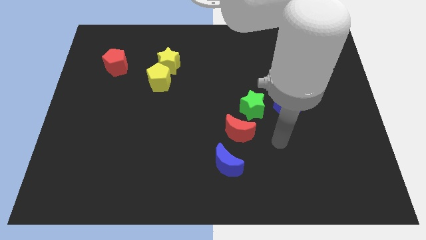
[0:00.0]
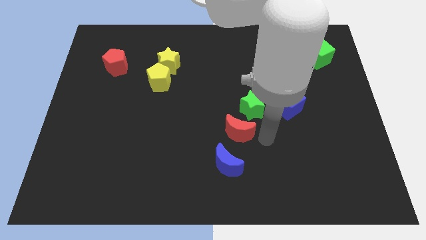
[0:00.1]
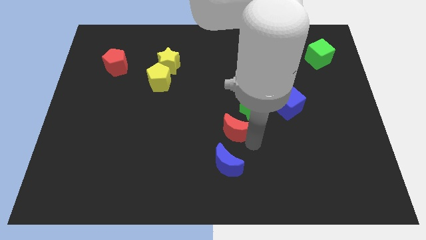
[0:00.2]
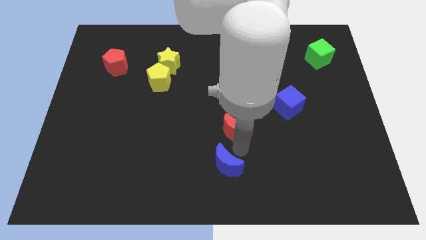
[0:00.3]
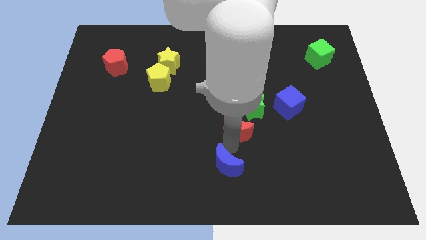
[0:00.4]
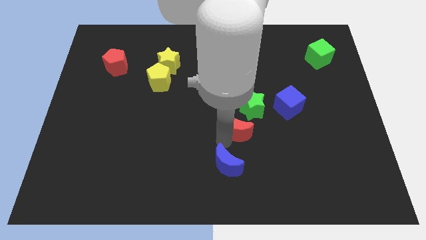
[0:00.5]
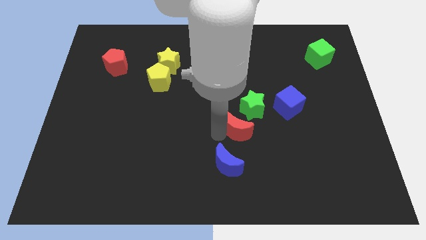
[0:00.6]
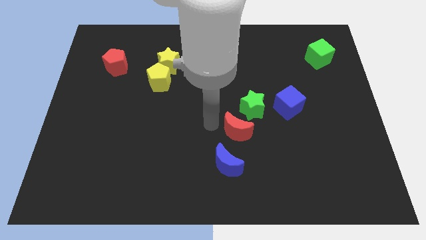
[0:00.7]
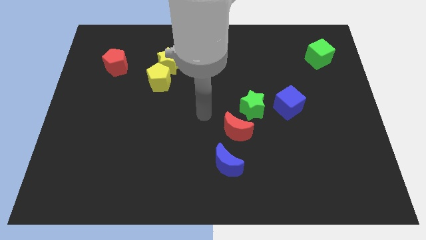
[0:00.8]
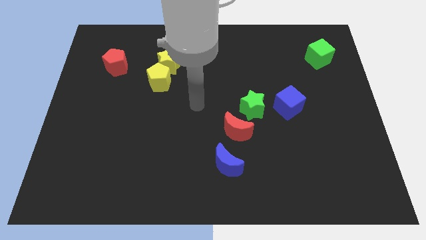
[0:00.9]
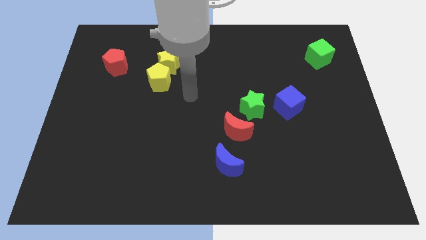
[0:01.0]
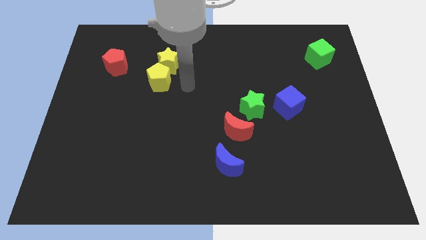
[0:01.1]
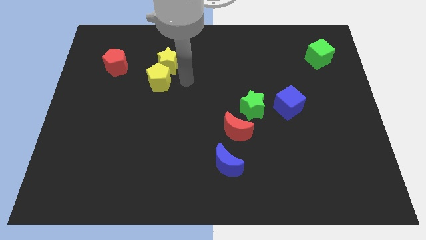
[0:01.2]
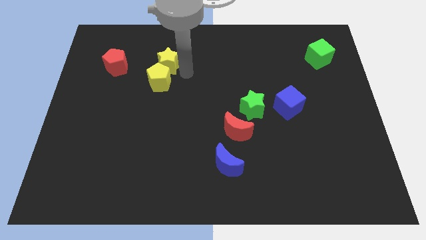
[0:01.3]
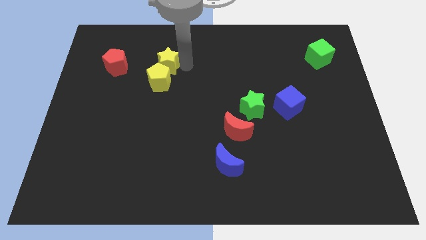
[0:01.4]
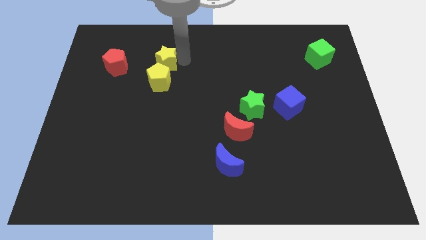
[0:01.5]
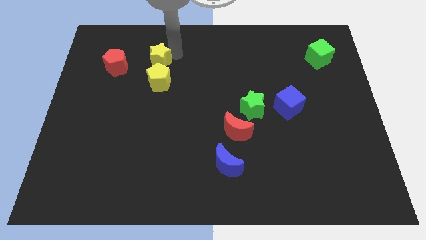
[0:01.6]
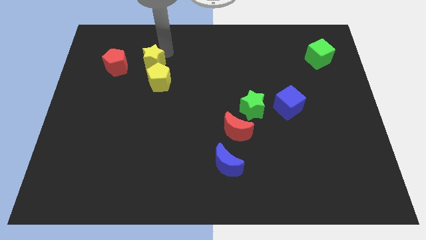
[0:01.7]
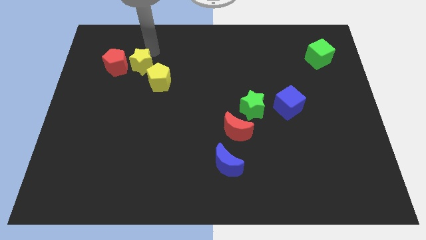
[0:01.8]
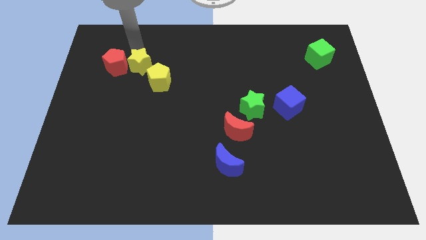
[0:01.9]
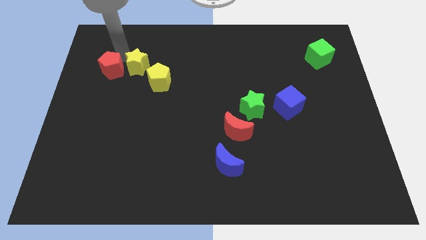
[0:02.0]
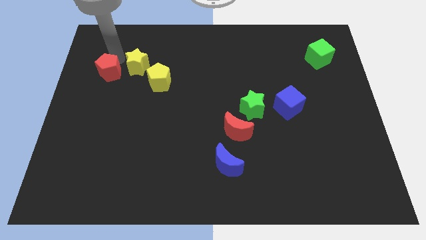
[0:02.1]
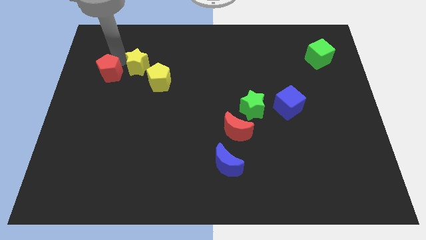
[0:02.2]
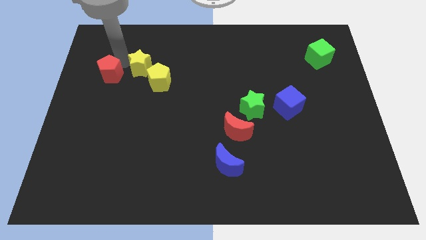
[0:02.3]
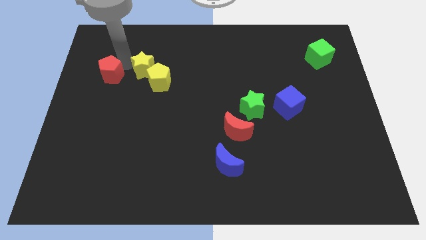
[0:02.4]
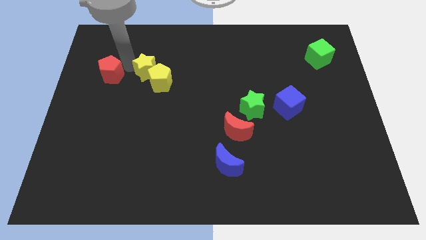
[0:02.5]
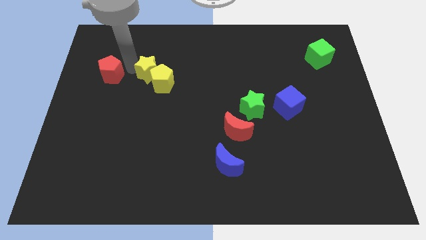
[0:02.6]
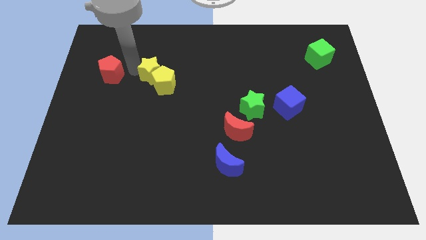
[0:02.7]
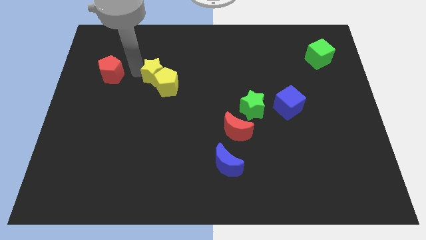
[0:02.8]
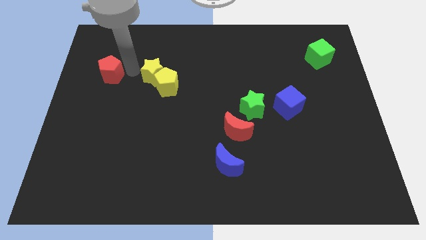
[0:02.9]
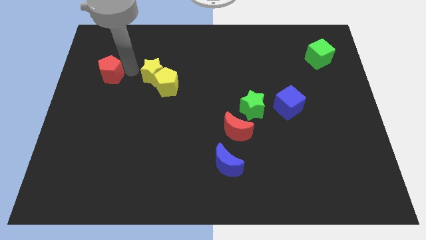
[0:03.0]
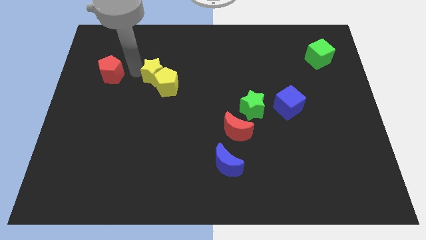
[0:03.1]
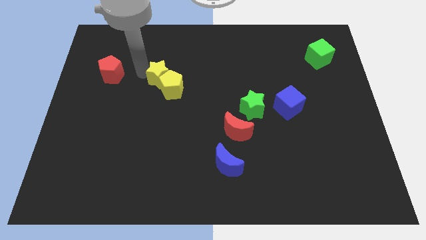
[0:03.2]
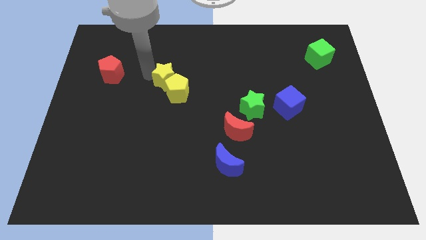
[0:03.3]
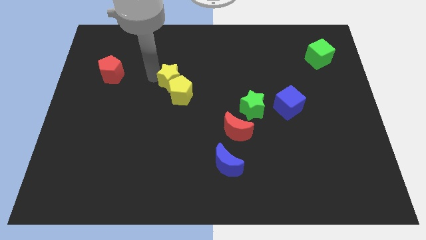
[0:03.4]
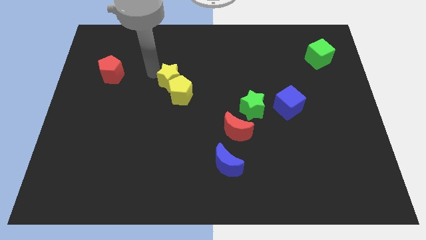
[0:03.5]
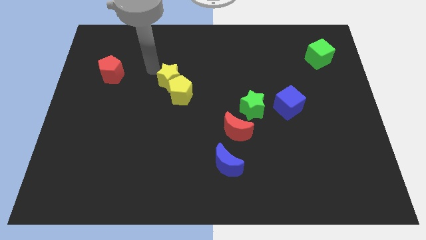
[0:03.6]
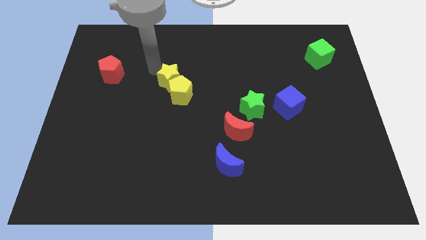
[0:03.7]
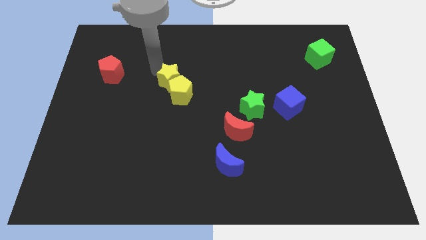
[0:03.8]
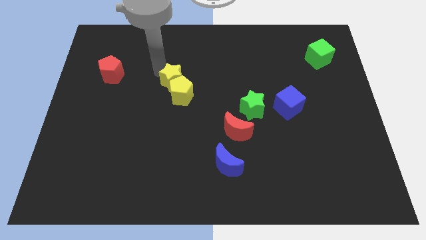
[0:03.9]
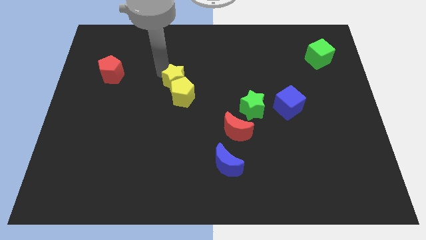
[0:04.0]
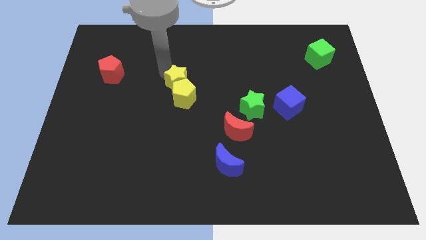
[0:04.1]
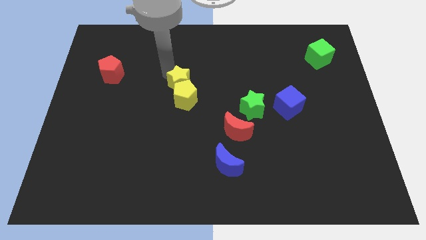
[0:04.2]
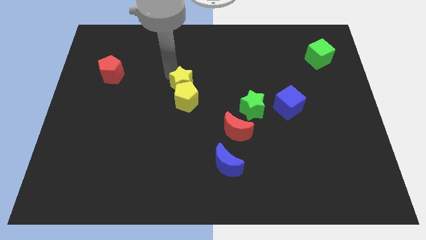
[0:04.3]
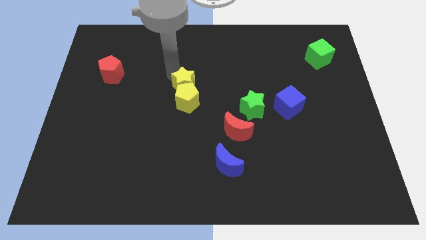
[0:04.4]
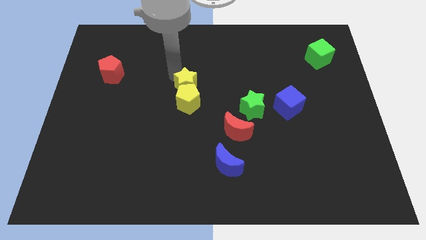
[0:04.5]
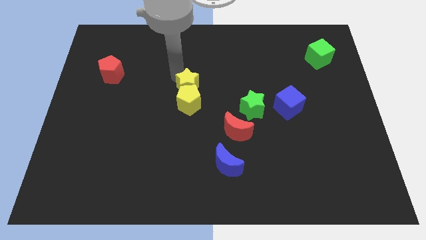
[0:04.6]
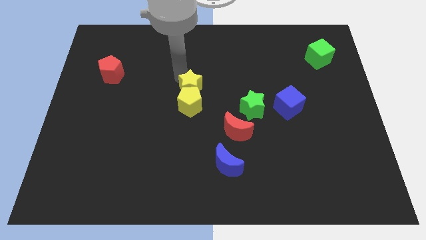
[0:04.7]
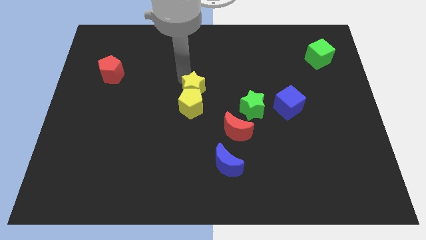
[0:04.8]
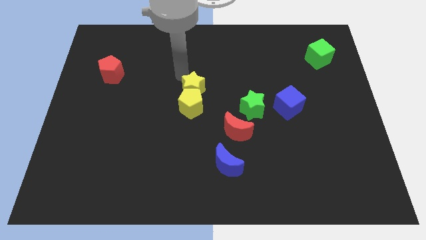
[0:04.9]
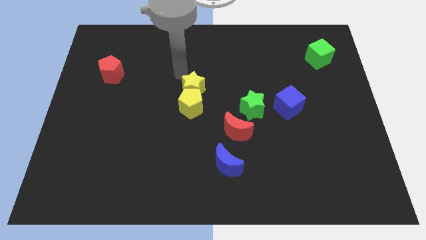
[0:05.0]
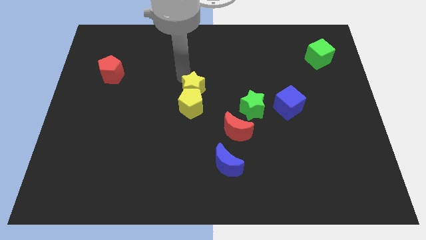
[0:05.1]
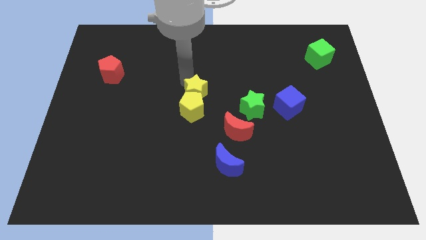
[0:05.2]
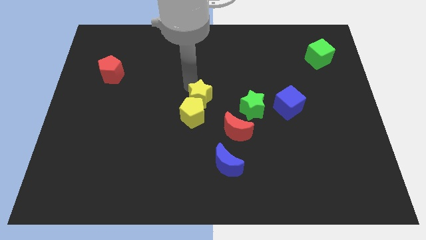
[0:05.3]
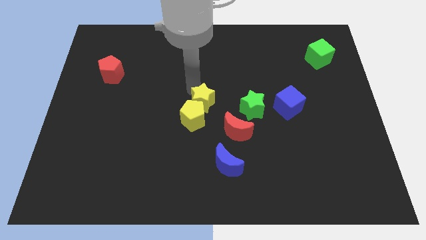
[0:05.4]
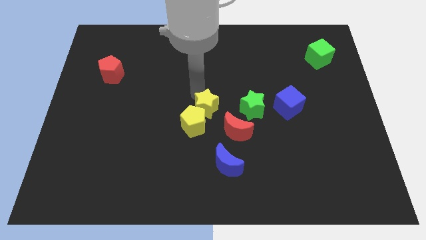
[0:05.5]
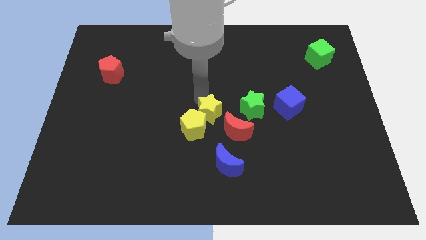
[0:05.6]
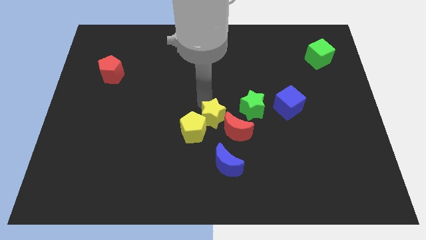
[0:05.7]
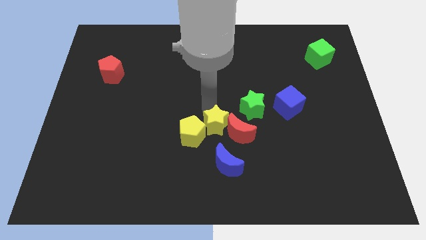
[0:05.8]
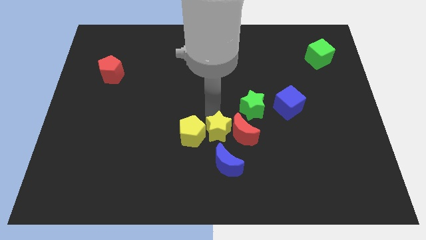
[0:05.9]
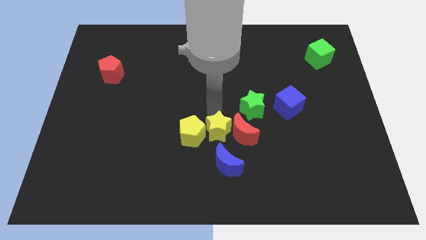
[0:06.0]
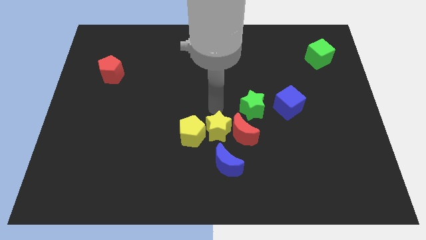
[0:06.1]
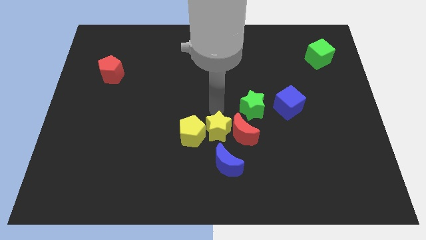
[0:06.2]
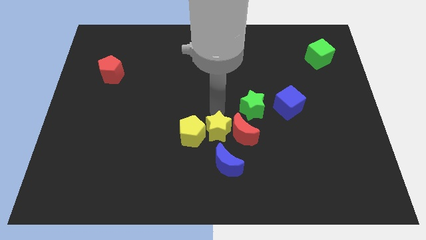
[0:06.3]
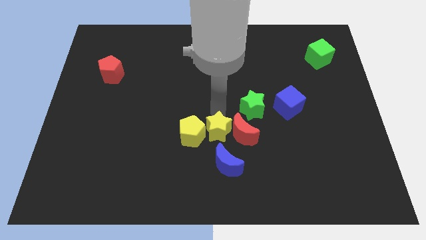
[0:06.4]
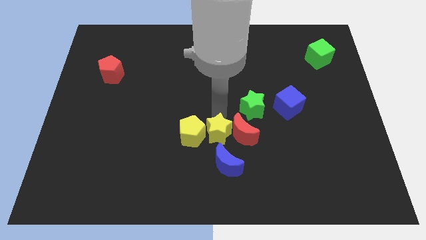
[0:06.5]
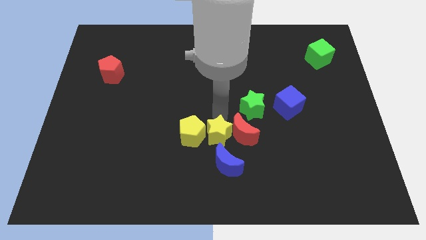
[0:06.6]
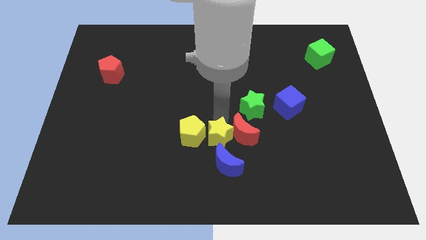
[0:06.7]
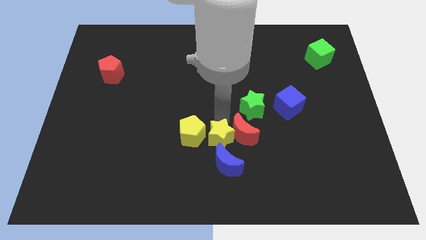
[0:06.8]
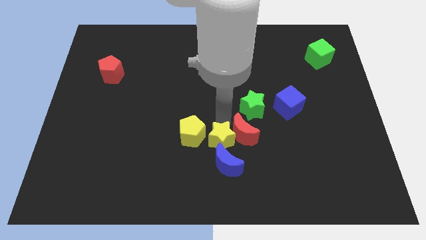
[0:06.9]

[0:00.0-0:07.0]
put the yellow star next to the blue moon
